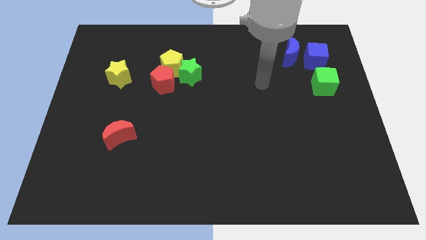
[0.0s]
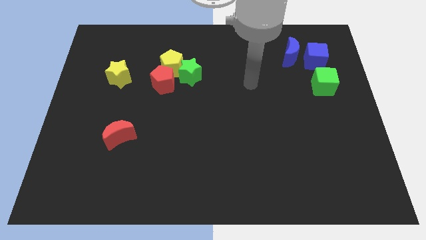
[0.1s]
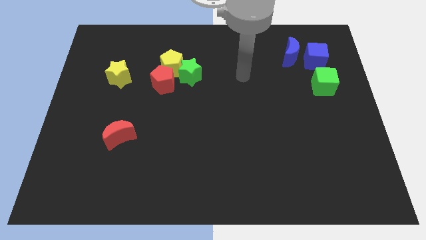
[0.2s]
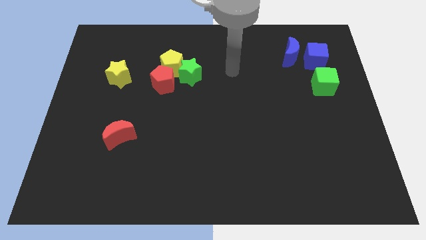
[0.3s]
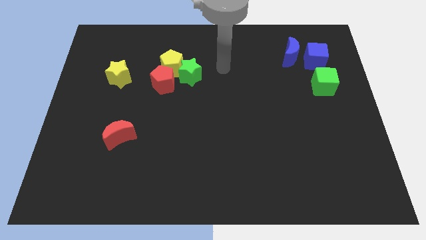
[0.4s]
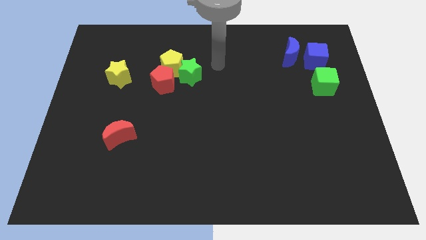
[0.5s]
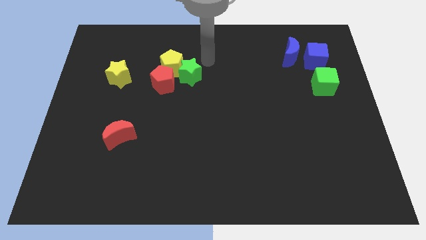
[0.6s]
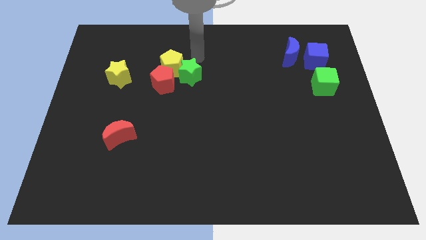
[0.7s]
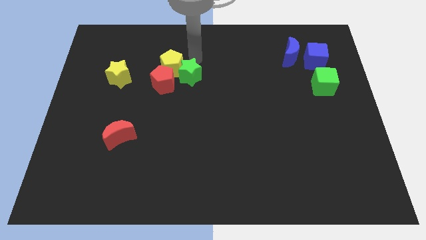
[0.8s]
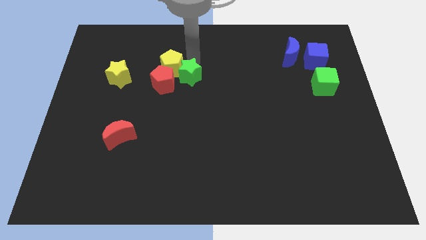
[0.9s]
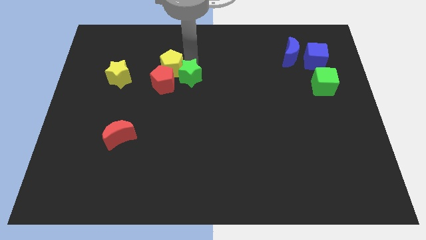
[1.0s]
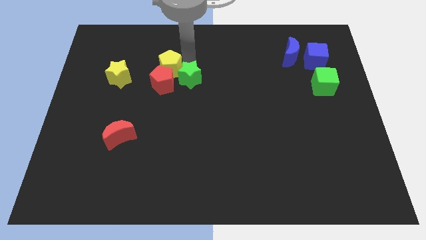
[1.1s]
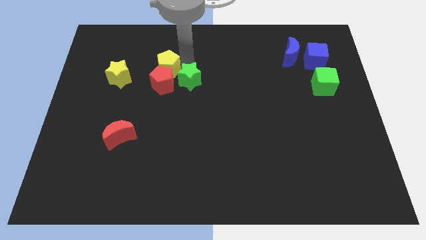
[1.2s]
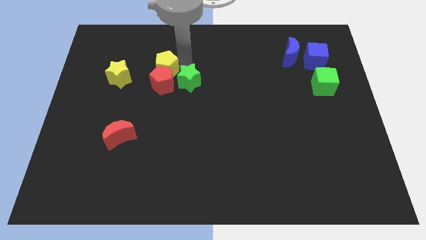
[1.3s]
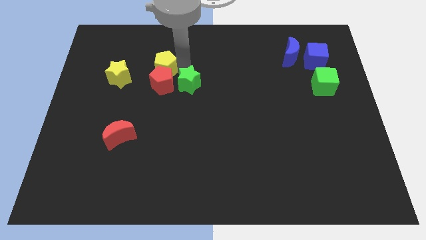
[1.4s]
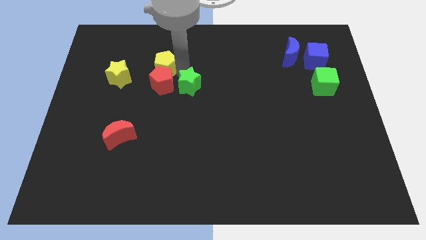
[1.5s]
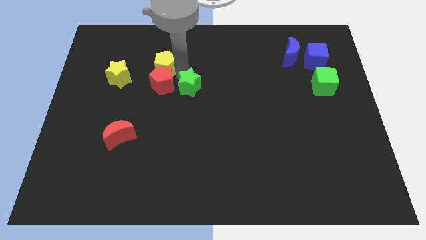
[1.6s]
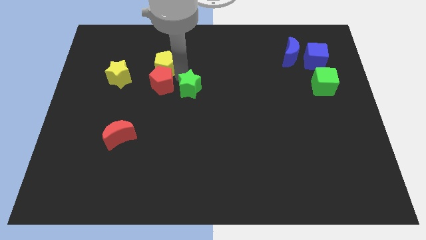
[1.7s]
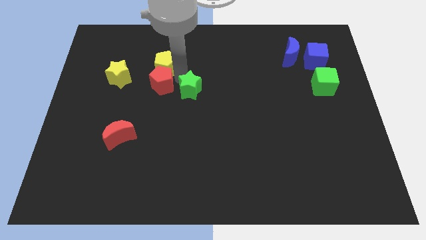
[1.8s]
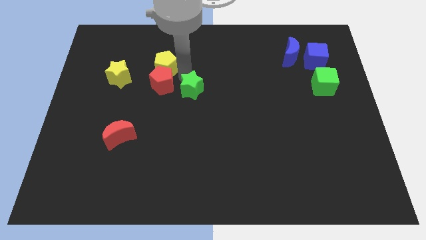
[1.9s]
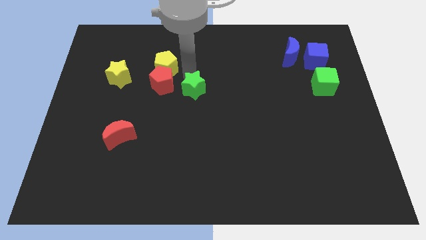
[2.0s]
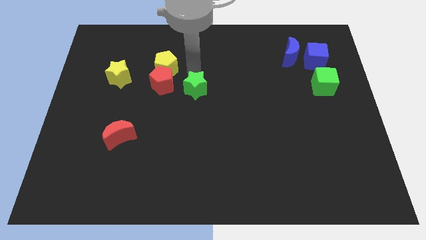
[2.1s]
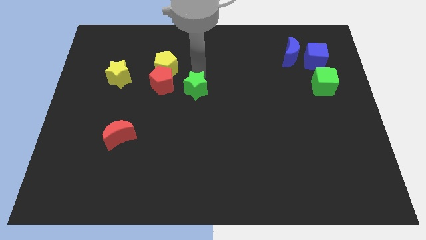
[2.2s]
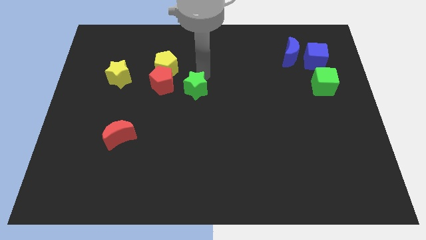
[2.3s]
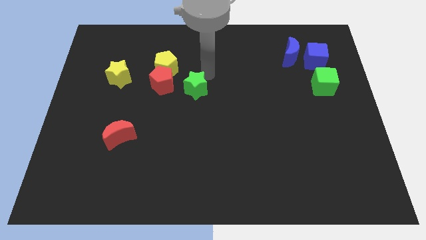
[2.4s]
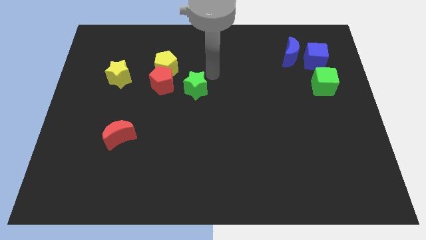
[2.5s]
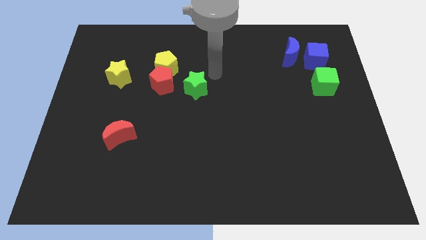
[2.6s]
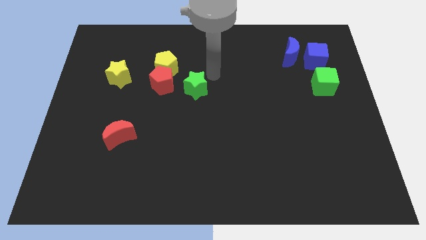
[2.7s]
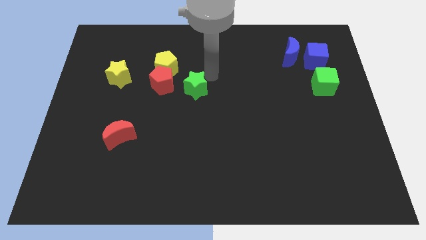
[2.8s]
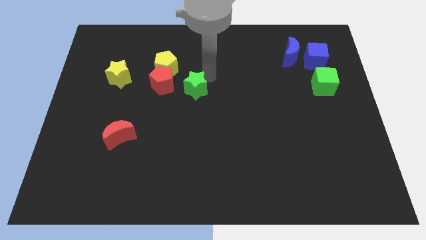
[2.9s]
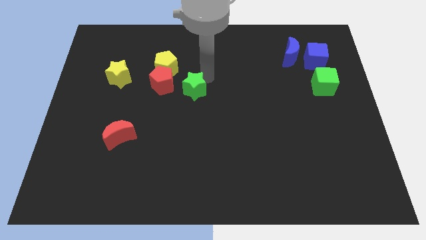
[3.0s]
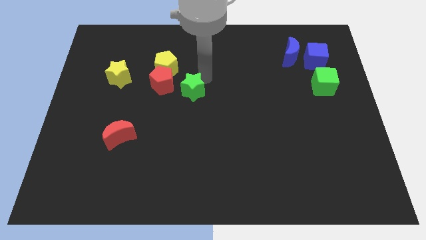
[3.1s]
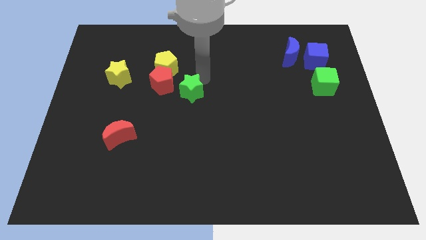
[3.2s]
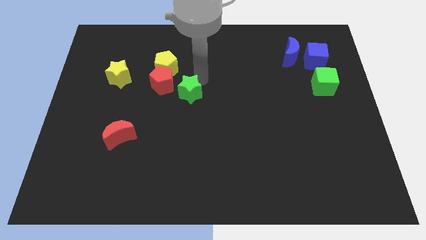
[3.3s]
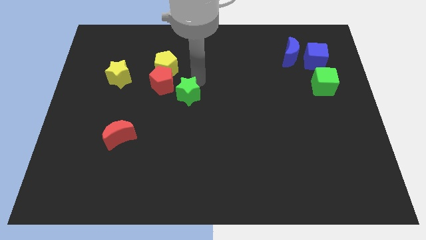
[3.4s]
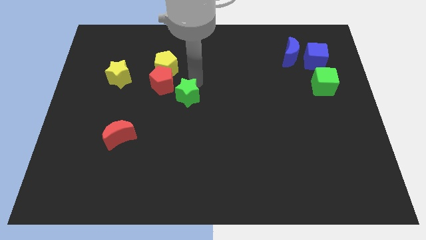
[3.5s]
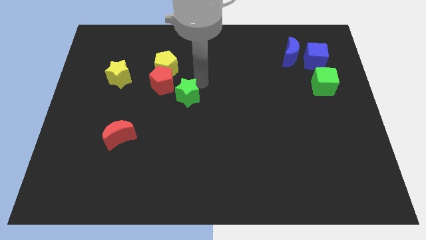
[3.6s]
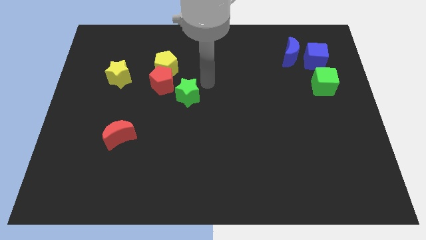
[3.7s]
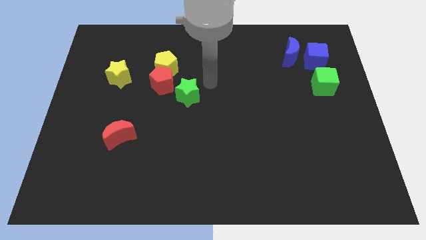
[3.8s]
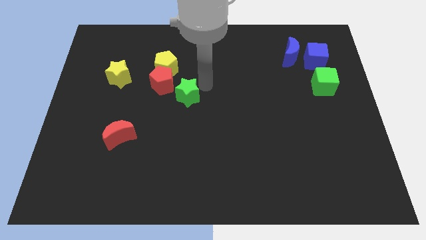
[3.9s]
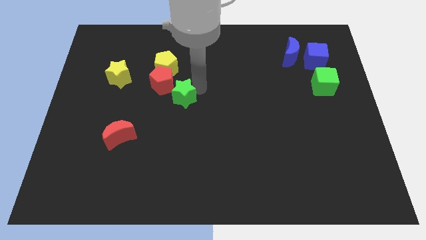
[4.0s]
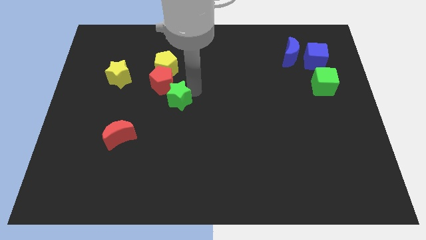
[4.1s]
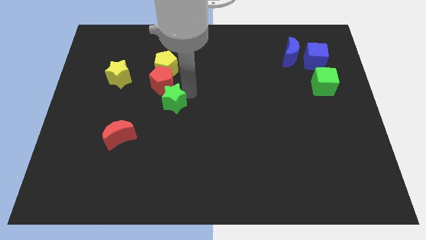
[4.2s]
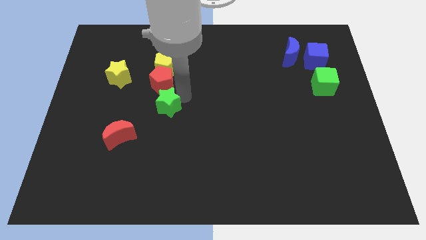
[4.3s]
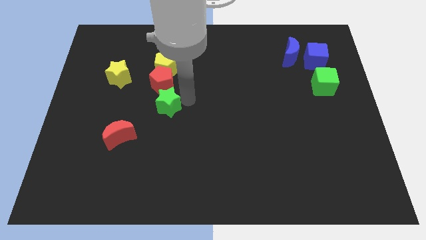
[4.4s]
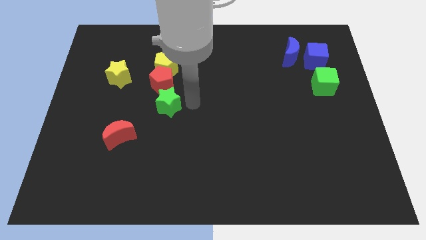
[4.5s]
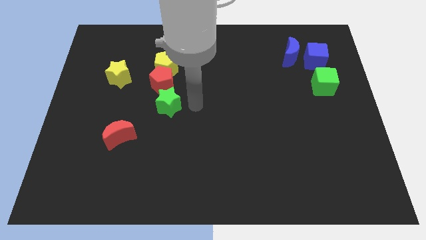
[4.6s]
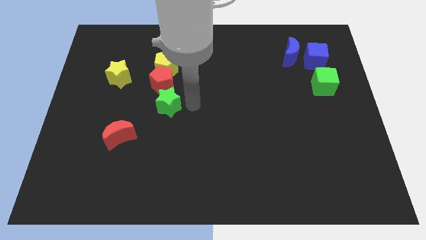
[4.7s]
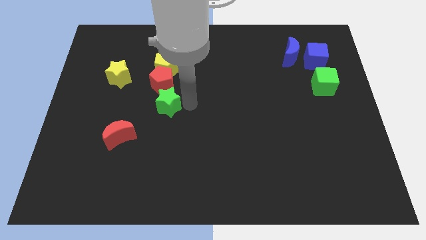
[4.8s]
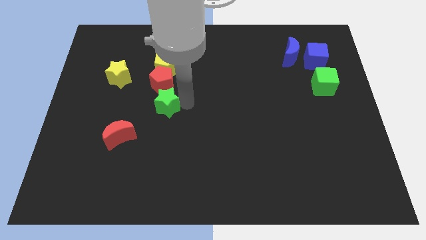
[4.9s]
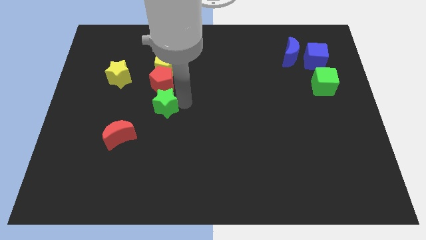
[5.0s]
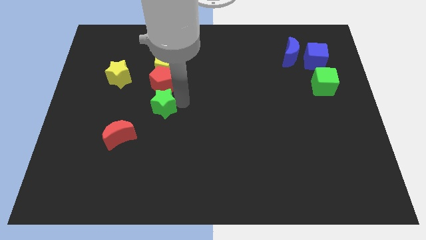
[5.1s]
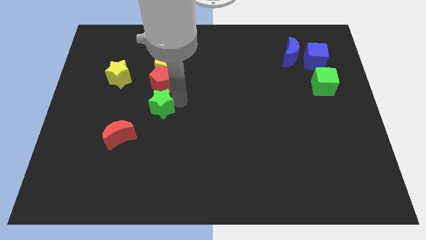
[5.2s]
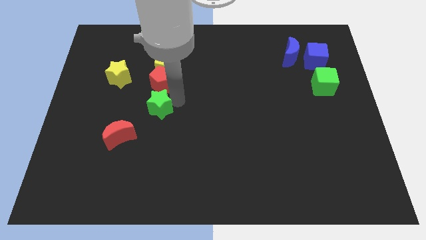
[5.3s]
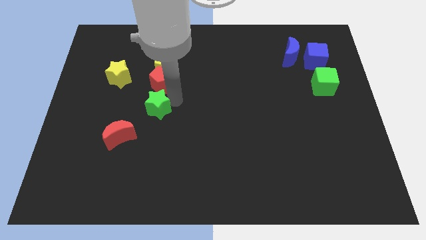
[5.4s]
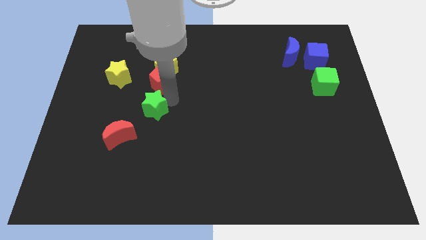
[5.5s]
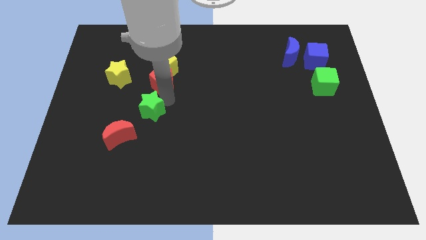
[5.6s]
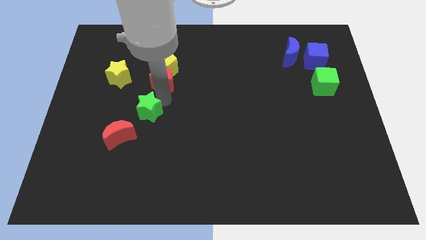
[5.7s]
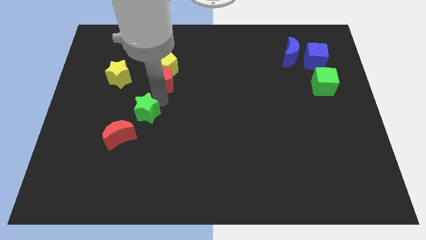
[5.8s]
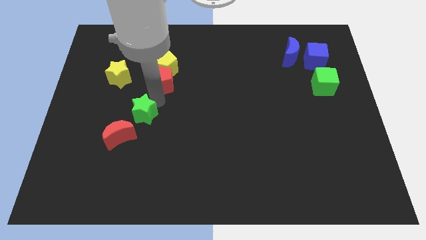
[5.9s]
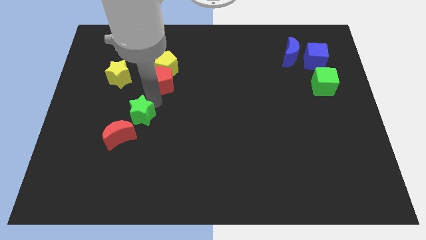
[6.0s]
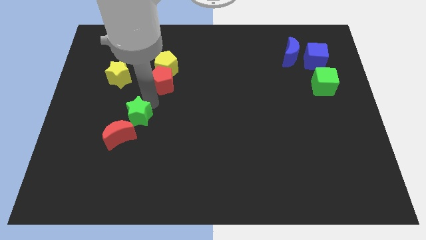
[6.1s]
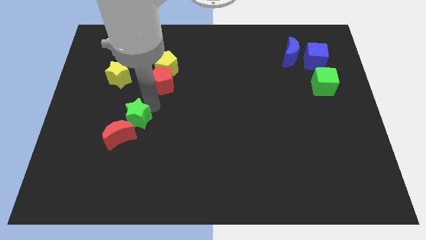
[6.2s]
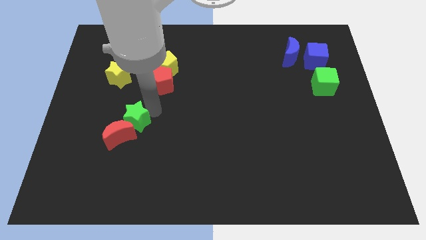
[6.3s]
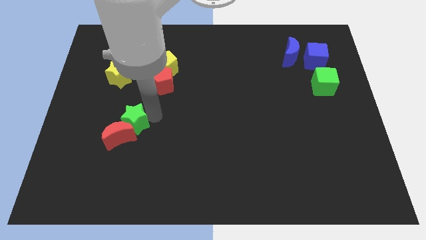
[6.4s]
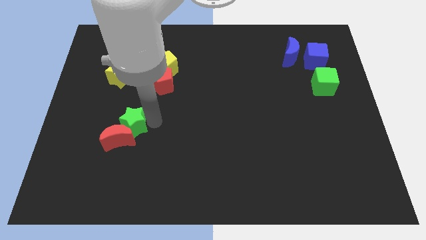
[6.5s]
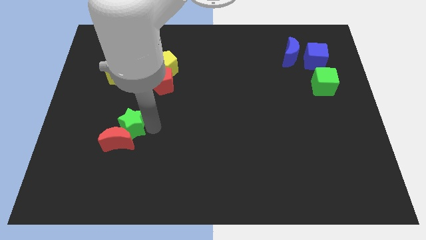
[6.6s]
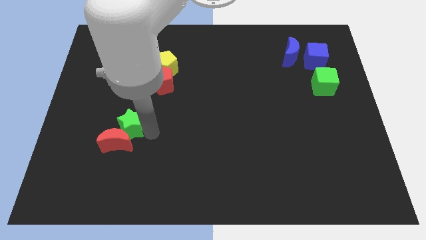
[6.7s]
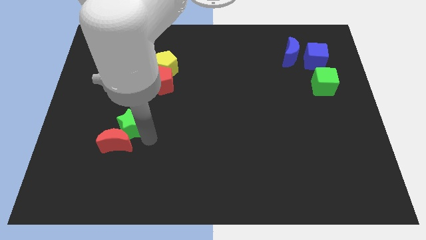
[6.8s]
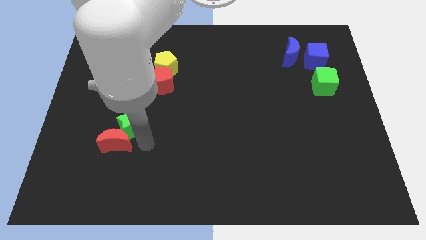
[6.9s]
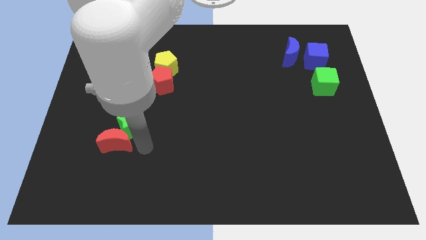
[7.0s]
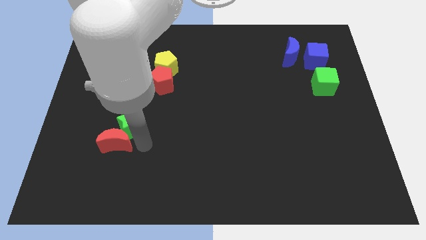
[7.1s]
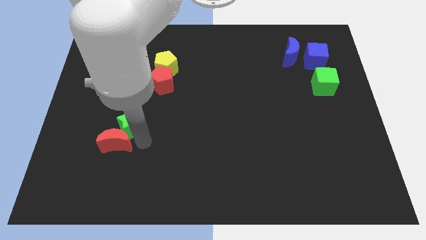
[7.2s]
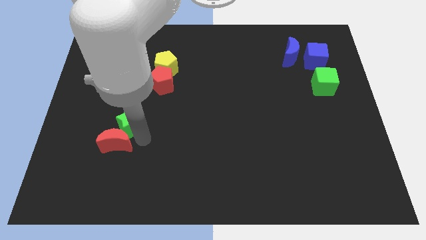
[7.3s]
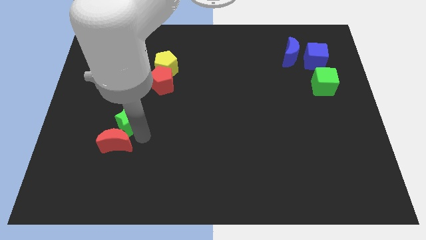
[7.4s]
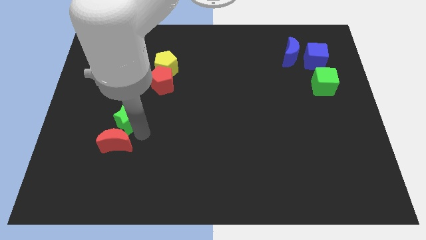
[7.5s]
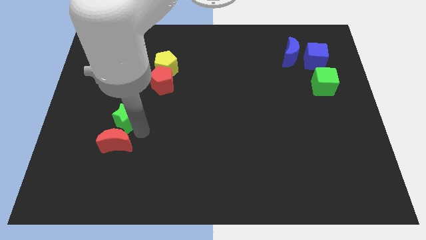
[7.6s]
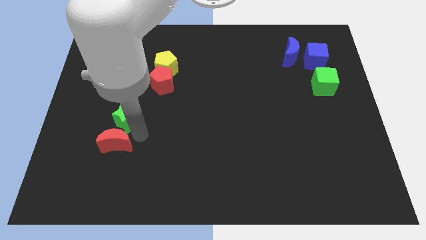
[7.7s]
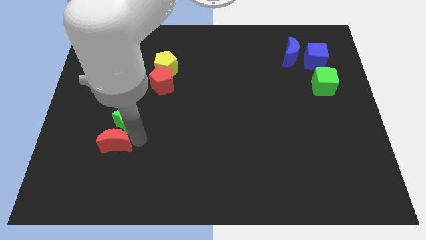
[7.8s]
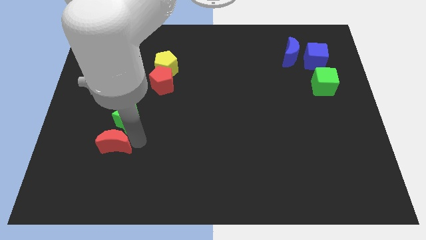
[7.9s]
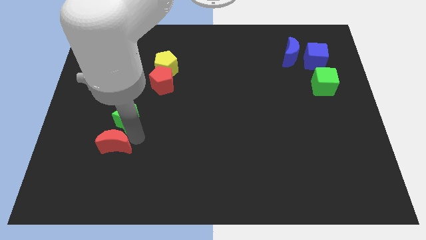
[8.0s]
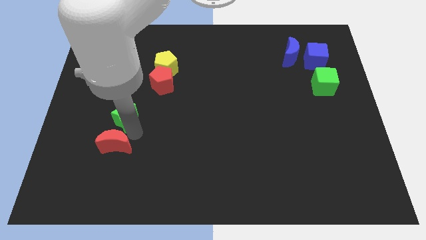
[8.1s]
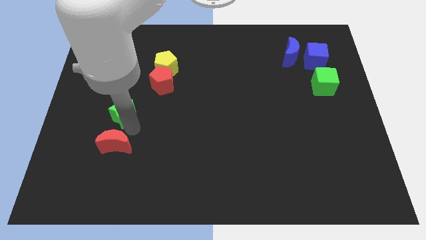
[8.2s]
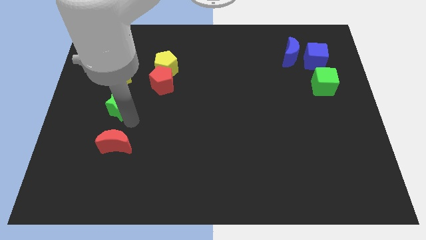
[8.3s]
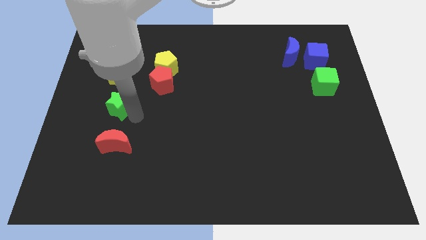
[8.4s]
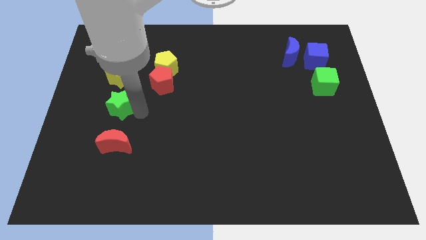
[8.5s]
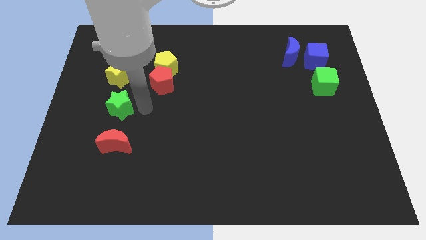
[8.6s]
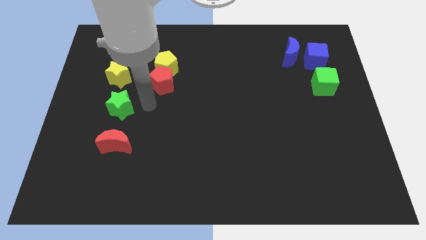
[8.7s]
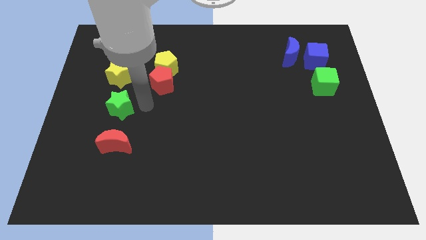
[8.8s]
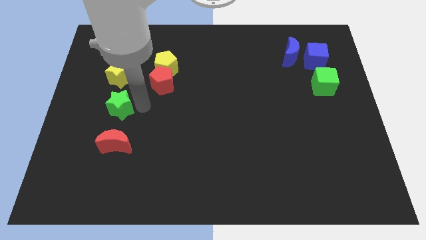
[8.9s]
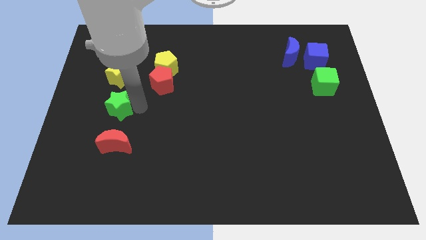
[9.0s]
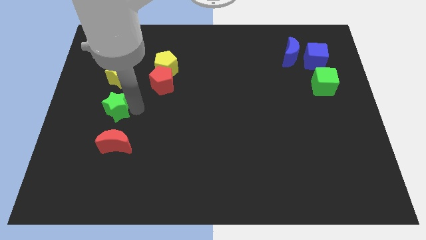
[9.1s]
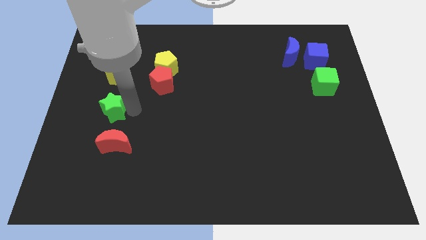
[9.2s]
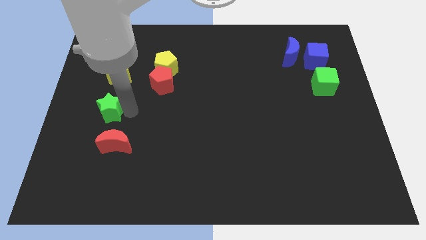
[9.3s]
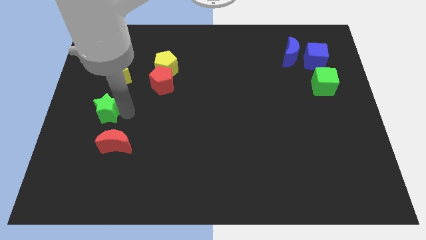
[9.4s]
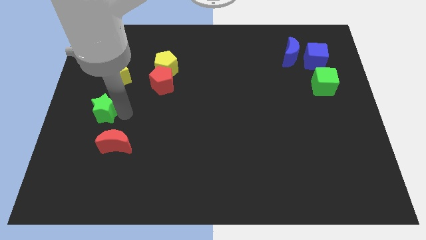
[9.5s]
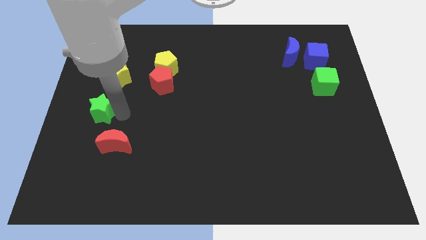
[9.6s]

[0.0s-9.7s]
push the green star to the left side of the board
